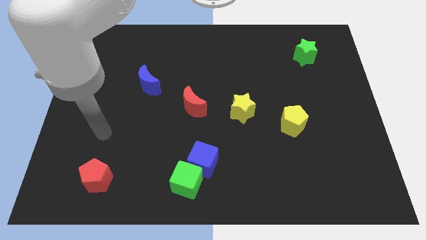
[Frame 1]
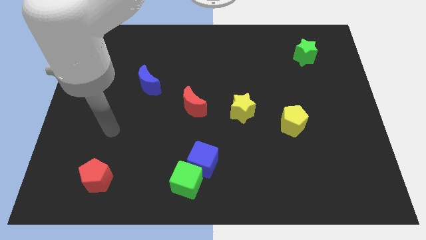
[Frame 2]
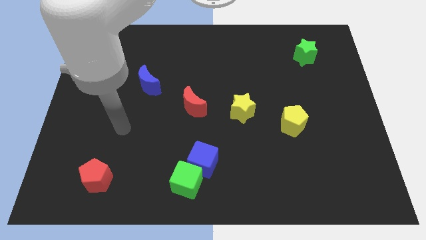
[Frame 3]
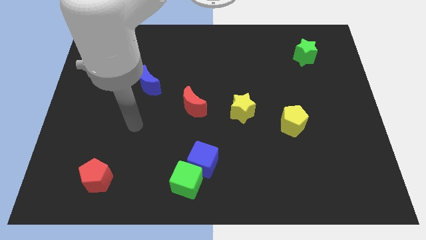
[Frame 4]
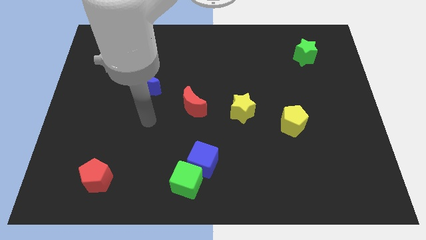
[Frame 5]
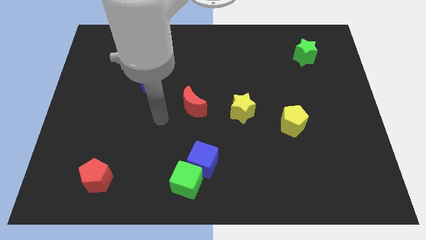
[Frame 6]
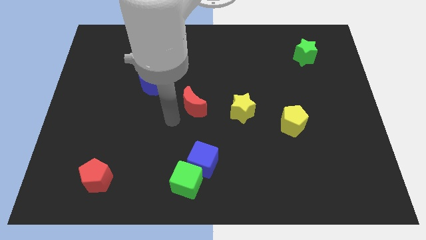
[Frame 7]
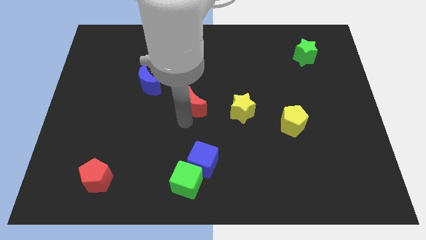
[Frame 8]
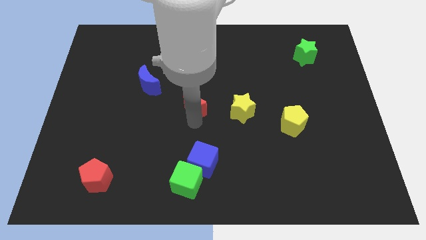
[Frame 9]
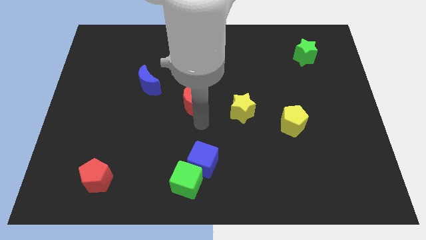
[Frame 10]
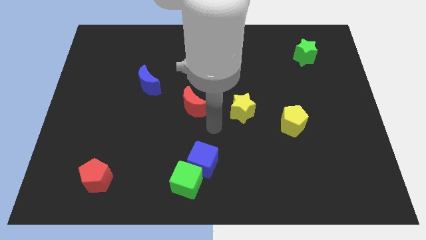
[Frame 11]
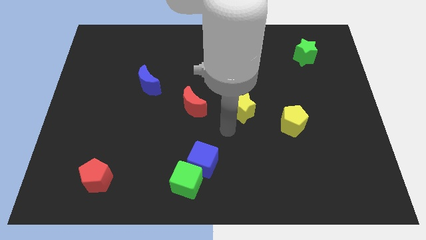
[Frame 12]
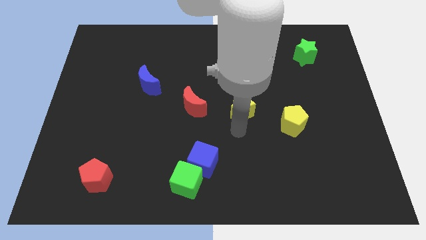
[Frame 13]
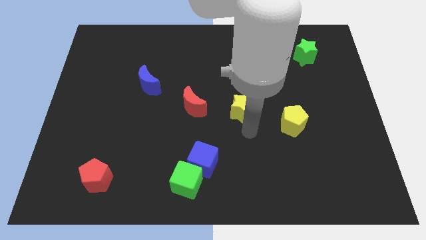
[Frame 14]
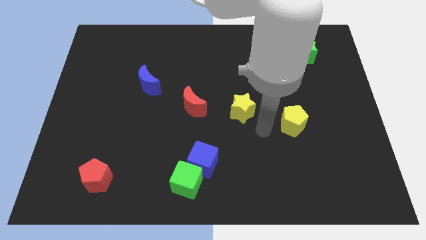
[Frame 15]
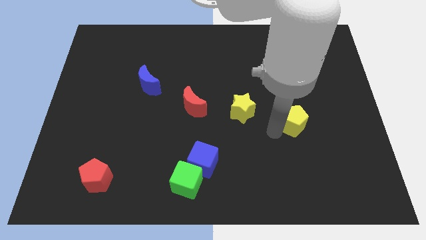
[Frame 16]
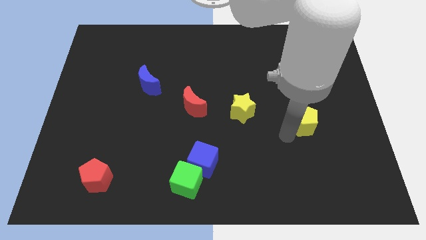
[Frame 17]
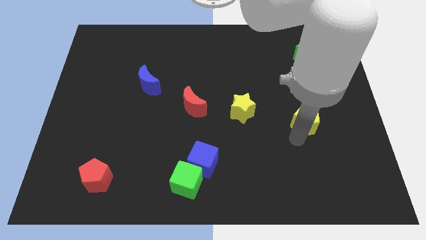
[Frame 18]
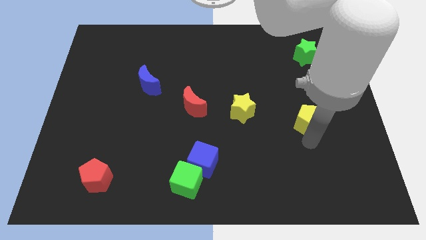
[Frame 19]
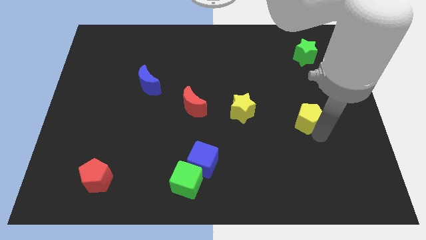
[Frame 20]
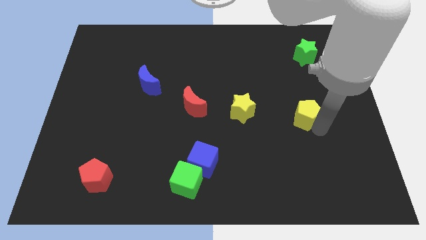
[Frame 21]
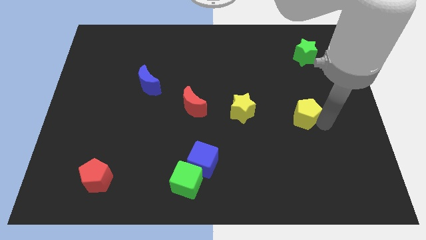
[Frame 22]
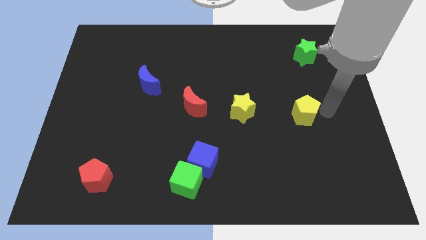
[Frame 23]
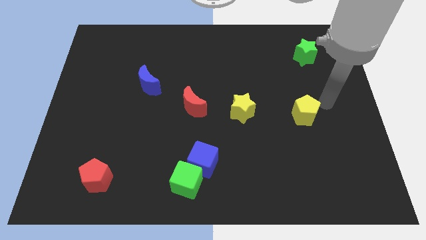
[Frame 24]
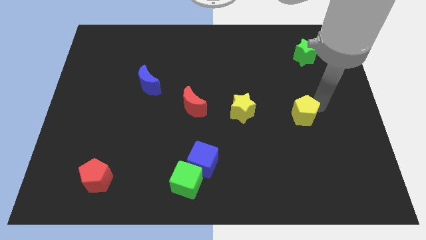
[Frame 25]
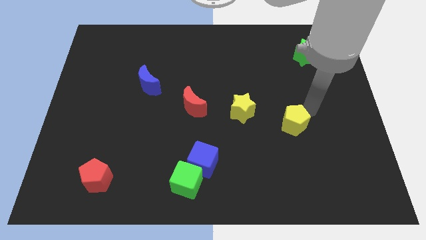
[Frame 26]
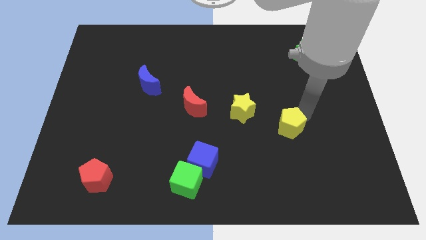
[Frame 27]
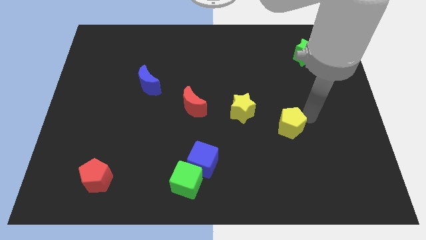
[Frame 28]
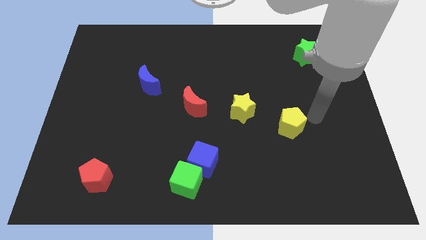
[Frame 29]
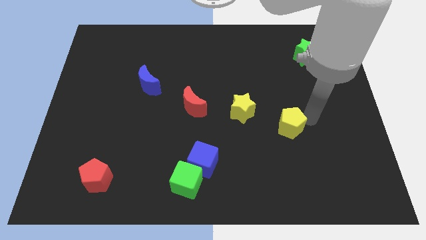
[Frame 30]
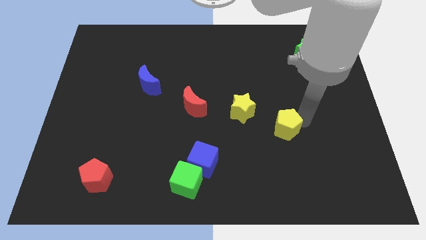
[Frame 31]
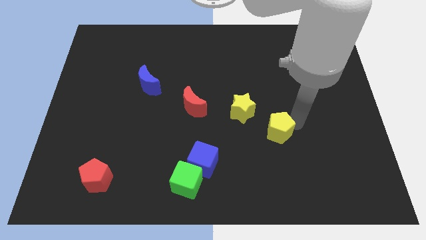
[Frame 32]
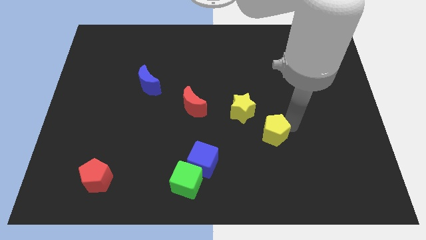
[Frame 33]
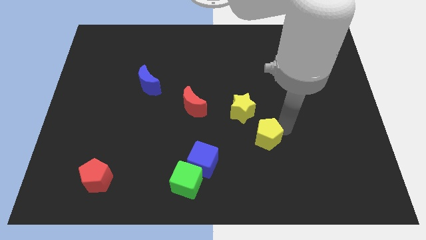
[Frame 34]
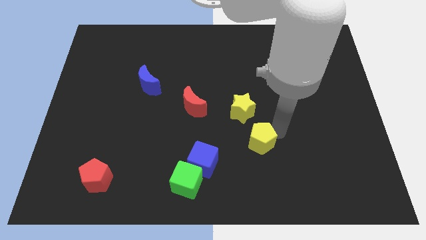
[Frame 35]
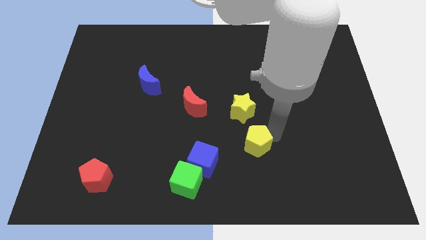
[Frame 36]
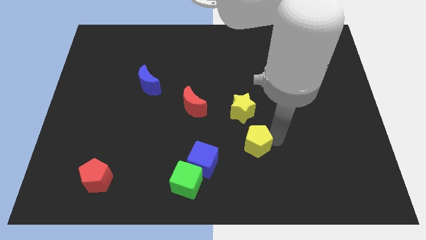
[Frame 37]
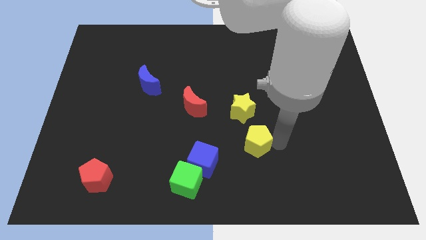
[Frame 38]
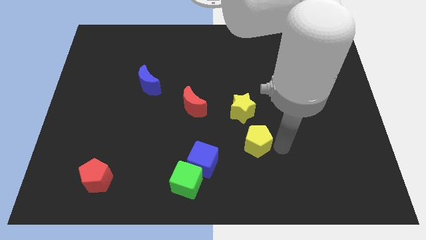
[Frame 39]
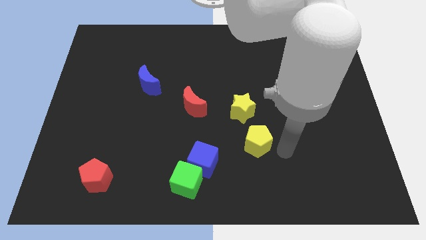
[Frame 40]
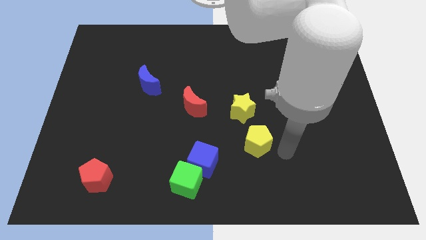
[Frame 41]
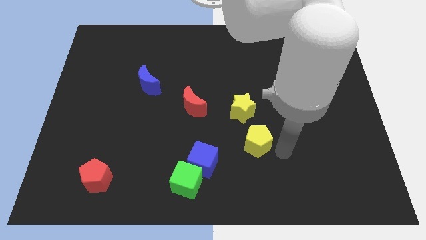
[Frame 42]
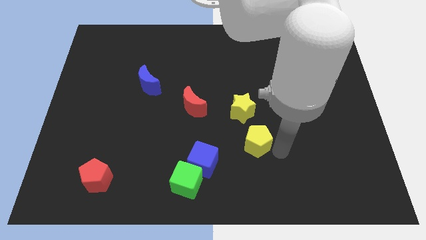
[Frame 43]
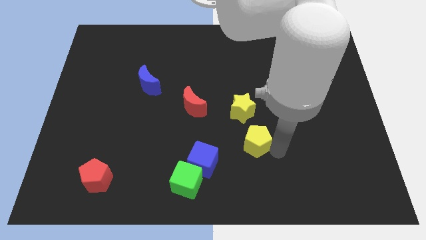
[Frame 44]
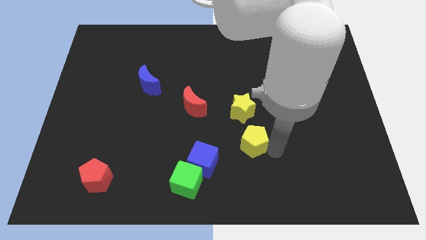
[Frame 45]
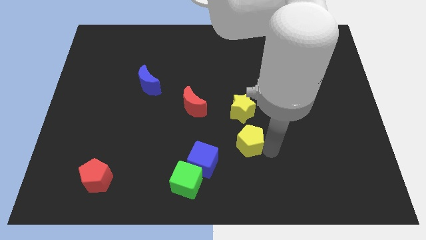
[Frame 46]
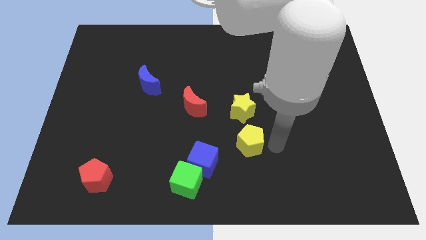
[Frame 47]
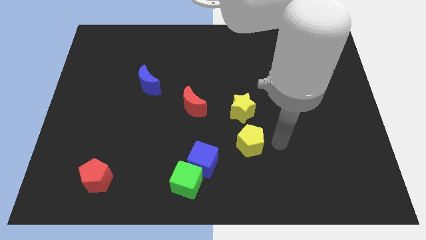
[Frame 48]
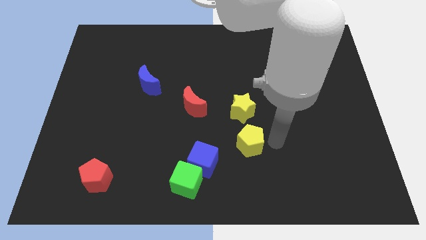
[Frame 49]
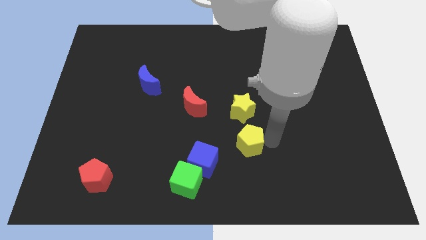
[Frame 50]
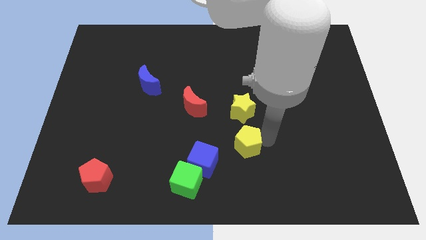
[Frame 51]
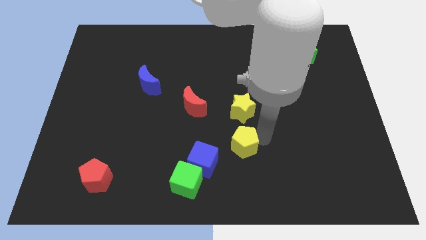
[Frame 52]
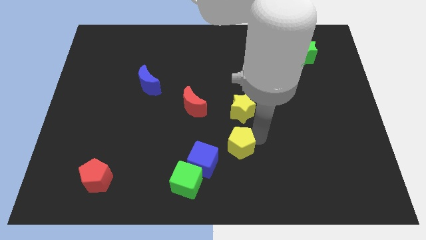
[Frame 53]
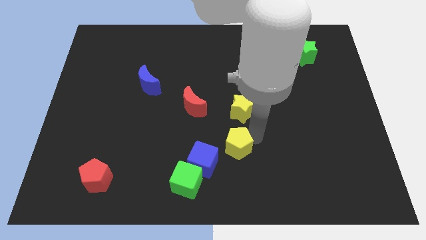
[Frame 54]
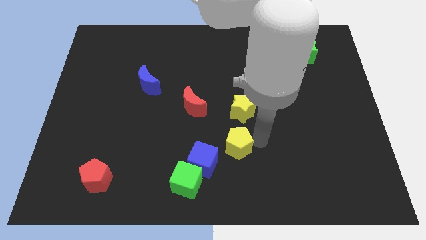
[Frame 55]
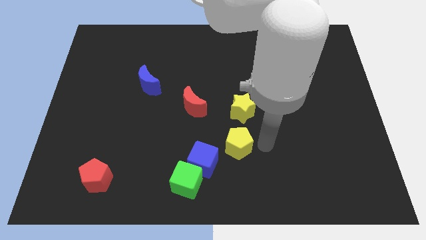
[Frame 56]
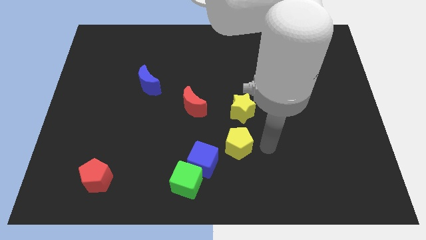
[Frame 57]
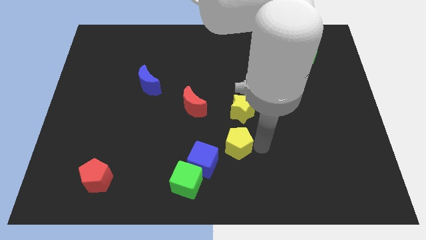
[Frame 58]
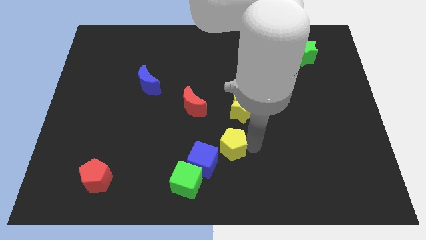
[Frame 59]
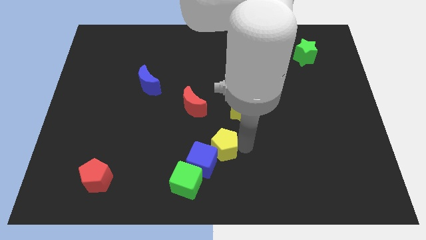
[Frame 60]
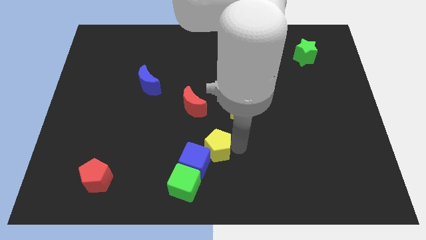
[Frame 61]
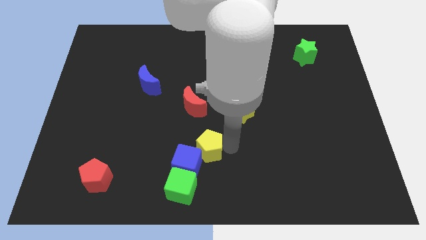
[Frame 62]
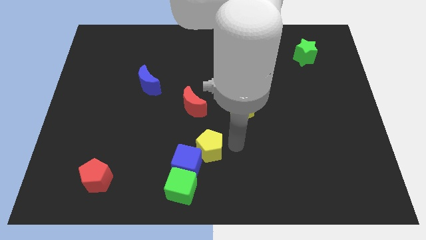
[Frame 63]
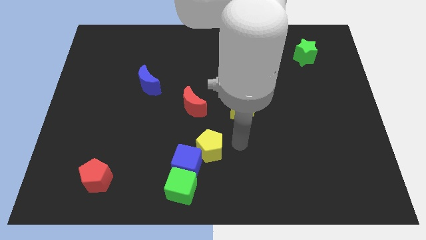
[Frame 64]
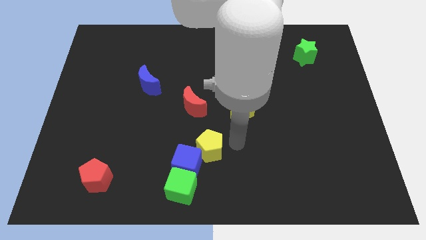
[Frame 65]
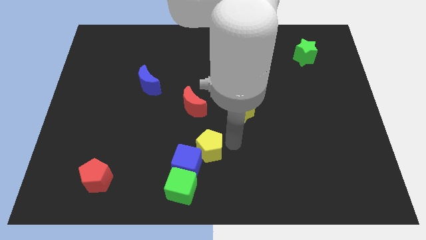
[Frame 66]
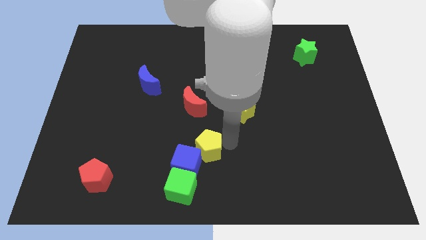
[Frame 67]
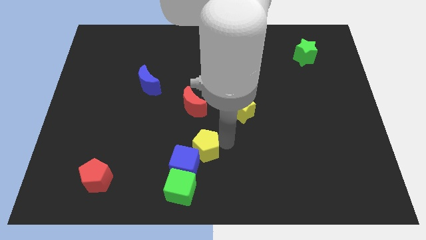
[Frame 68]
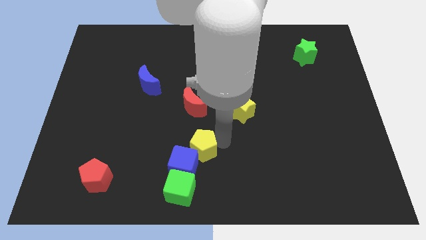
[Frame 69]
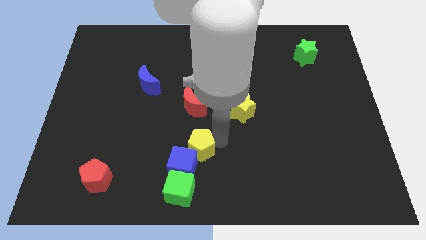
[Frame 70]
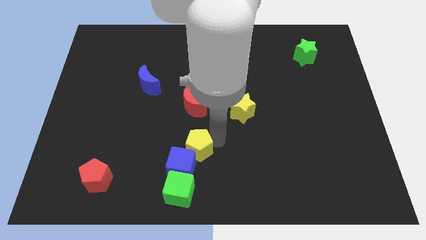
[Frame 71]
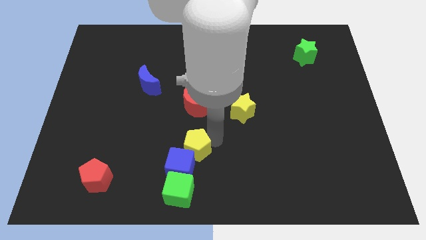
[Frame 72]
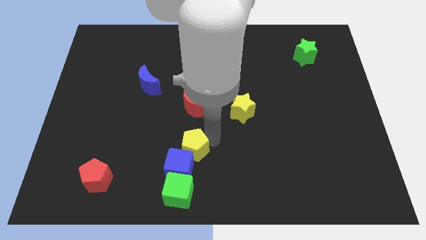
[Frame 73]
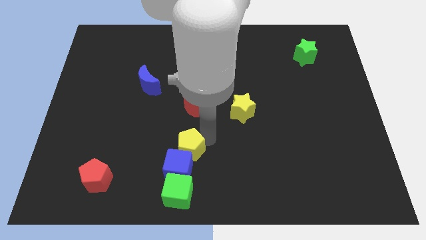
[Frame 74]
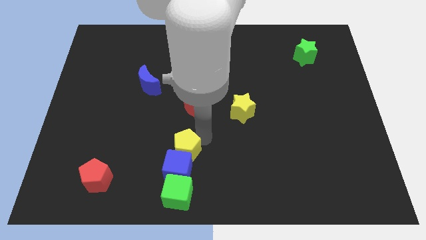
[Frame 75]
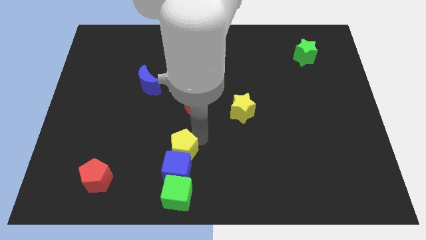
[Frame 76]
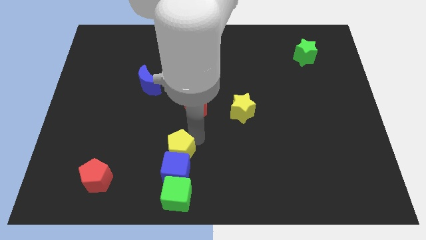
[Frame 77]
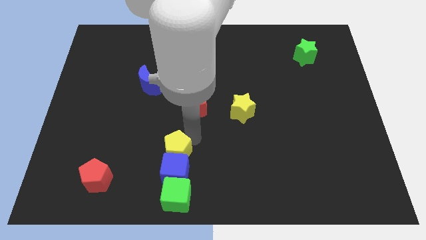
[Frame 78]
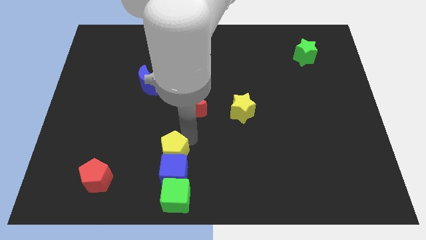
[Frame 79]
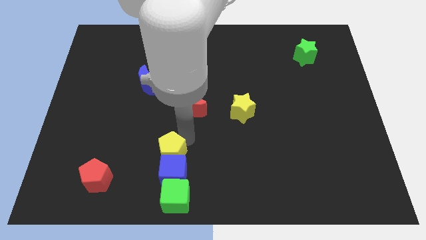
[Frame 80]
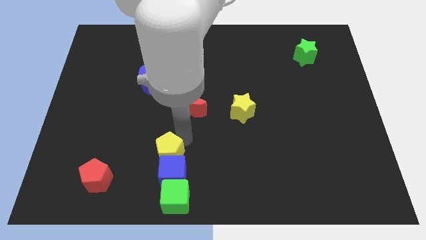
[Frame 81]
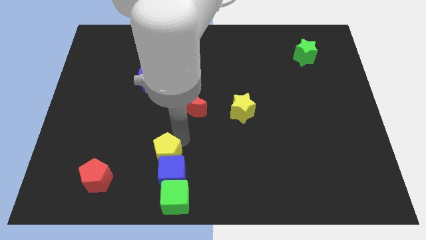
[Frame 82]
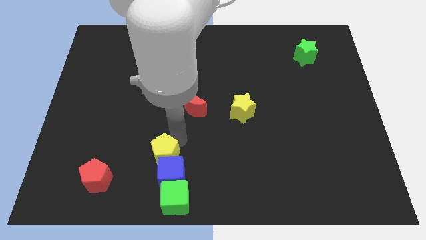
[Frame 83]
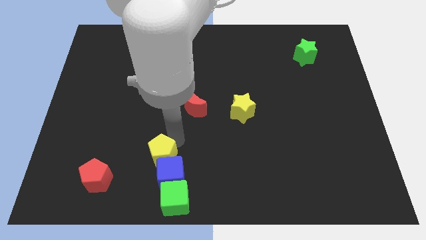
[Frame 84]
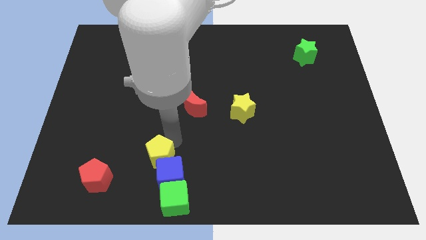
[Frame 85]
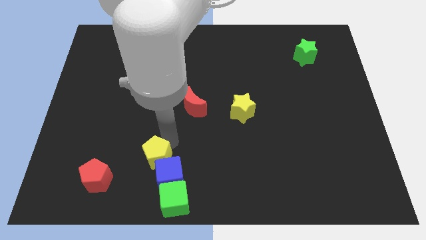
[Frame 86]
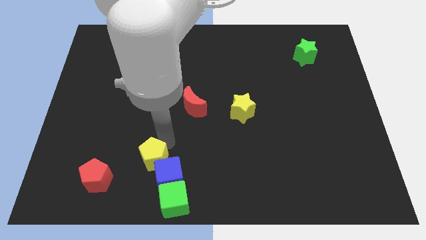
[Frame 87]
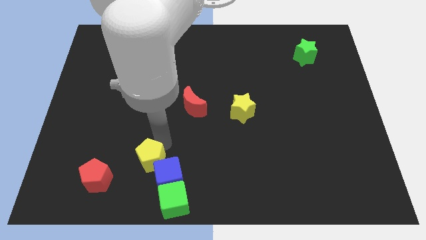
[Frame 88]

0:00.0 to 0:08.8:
push the yellow pentagon to the right of the red pentagon
